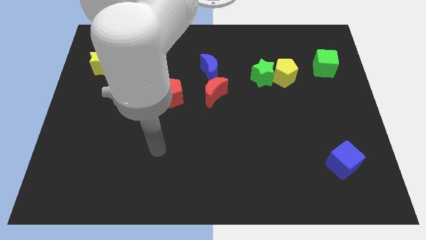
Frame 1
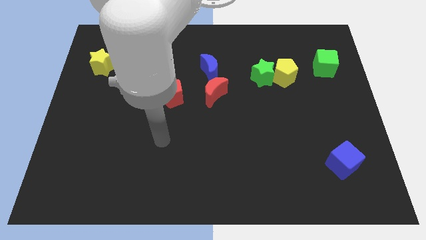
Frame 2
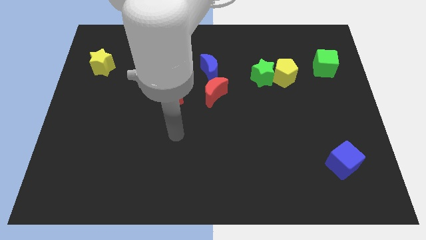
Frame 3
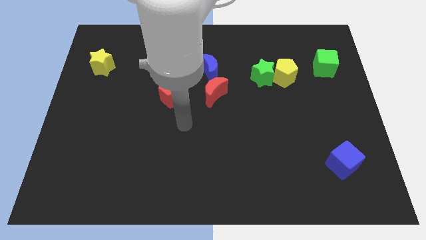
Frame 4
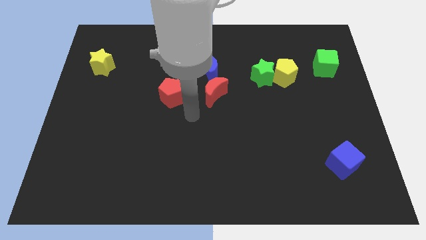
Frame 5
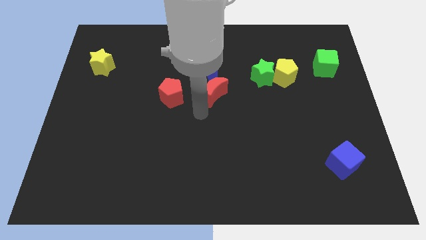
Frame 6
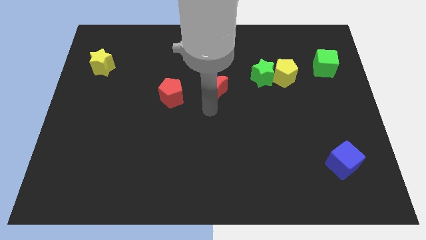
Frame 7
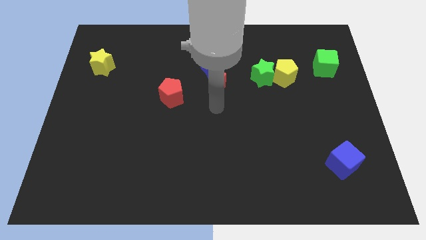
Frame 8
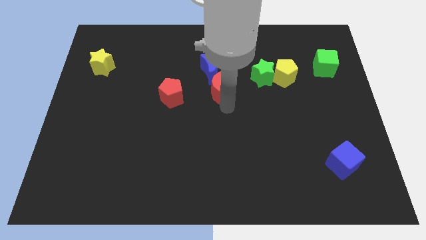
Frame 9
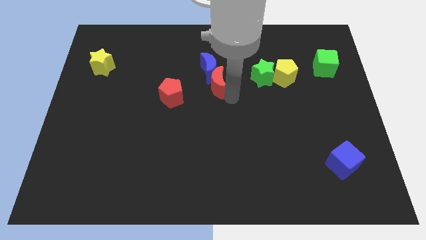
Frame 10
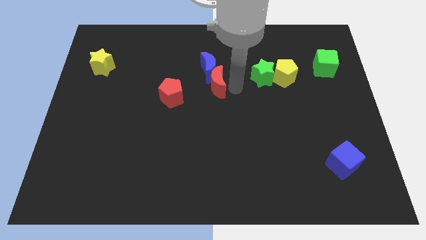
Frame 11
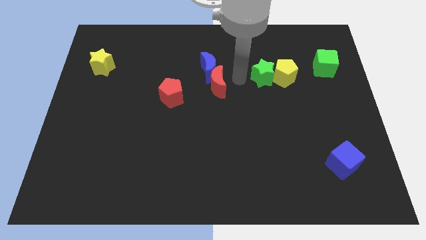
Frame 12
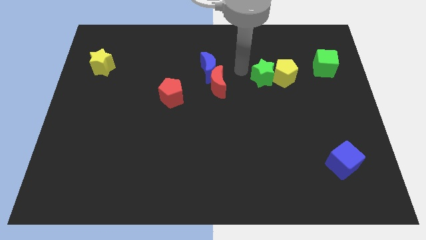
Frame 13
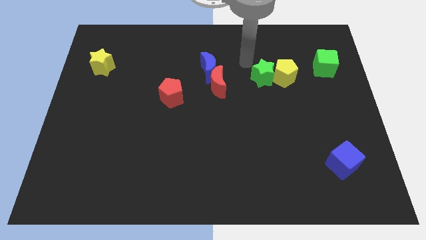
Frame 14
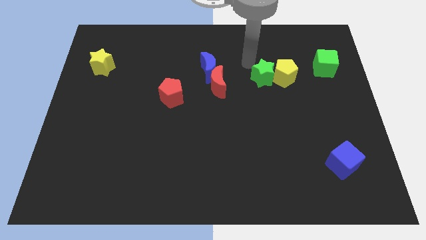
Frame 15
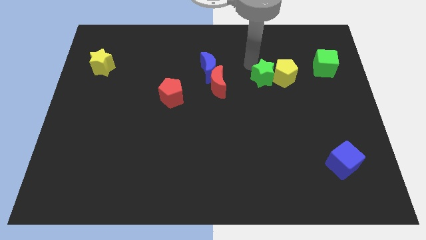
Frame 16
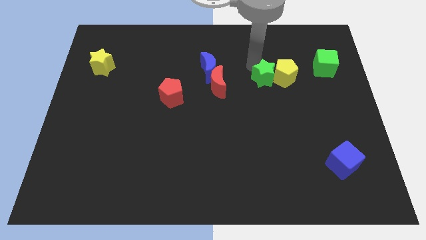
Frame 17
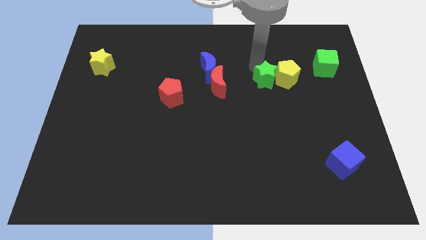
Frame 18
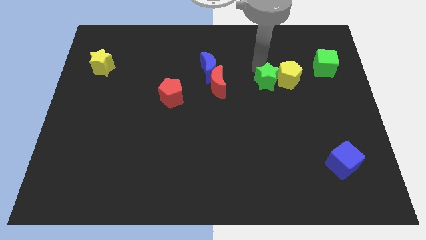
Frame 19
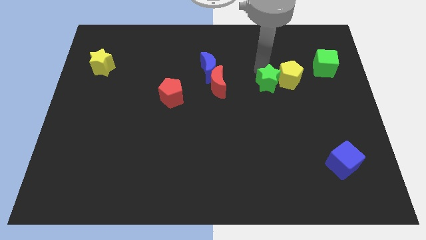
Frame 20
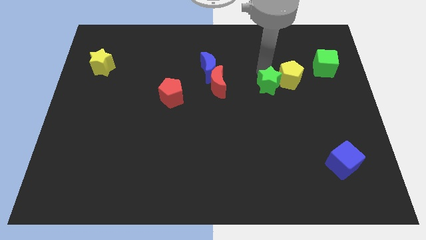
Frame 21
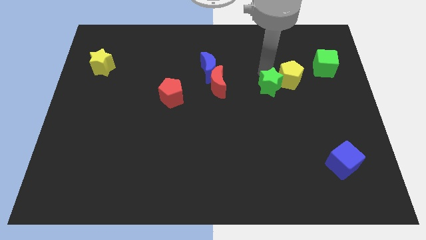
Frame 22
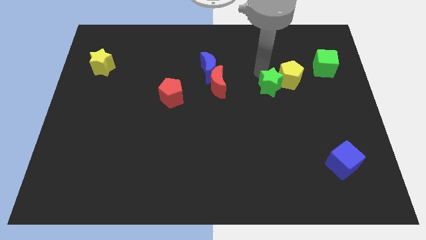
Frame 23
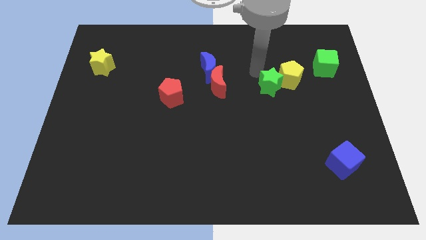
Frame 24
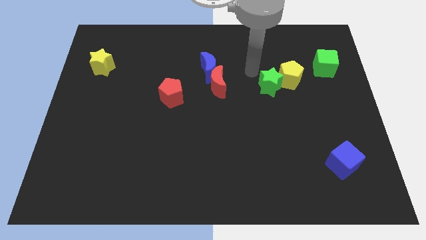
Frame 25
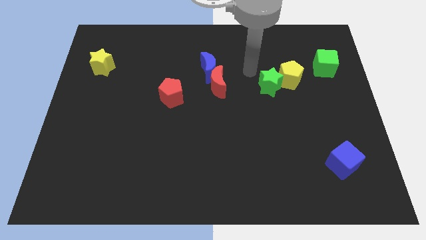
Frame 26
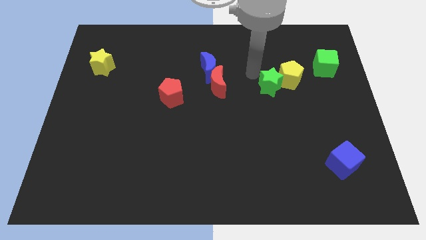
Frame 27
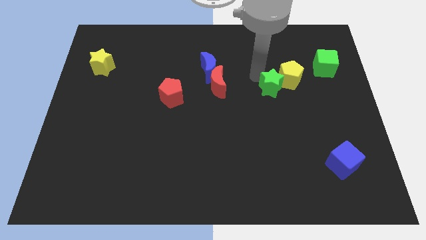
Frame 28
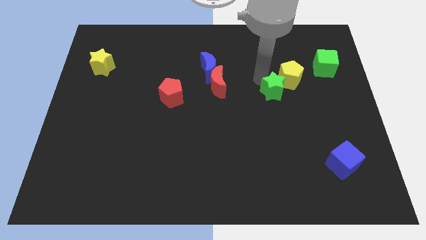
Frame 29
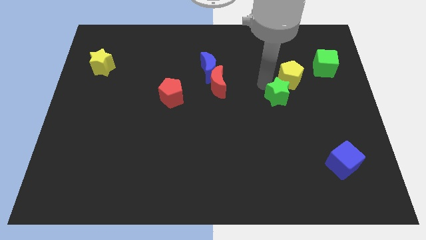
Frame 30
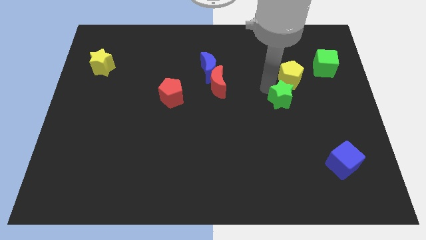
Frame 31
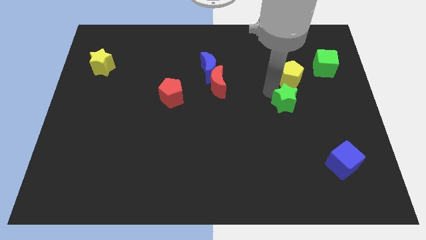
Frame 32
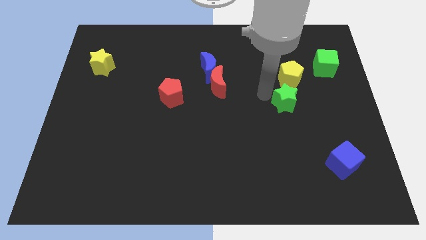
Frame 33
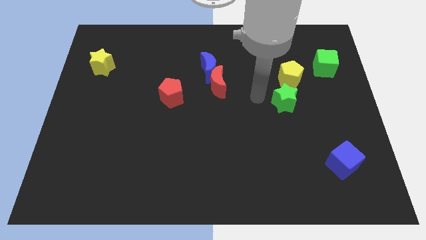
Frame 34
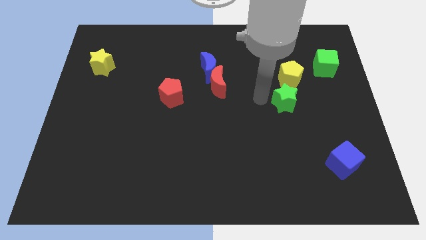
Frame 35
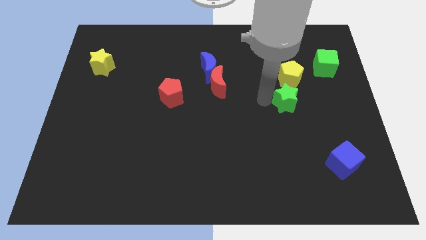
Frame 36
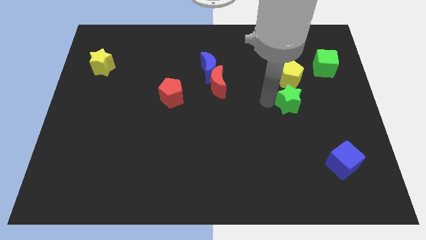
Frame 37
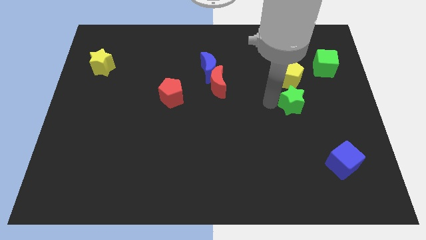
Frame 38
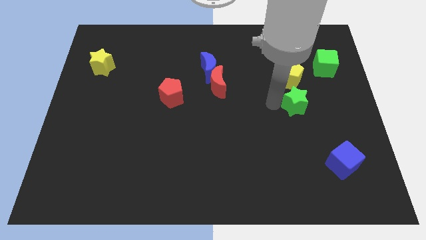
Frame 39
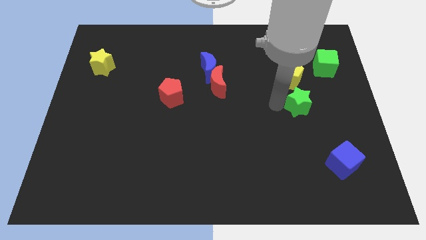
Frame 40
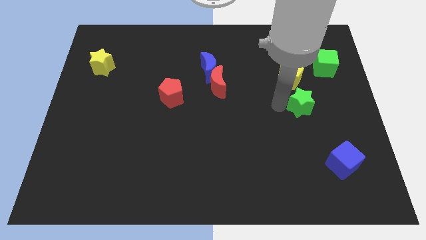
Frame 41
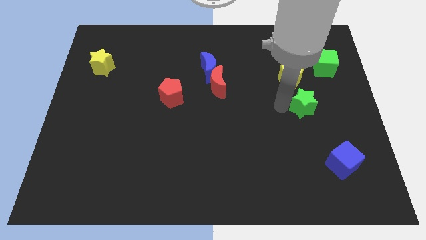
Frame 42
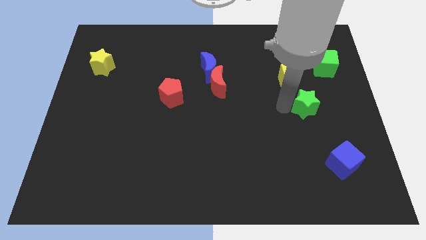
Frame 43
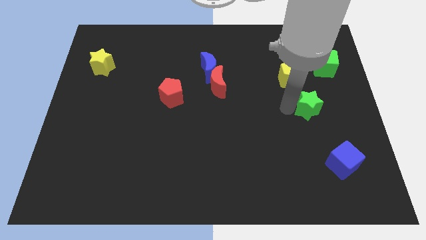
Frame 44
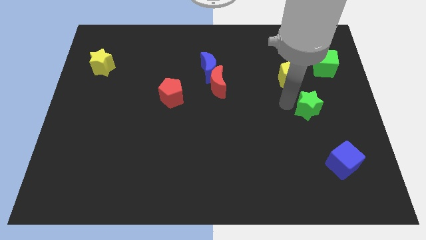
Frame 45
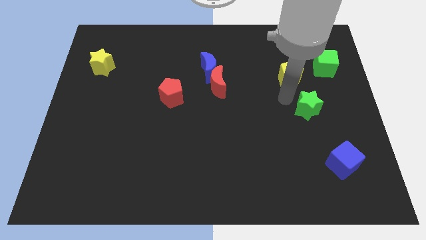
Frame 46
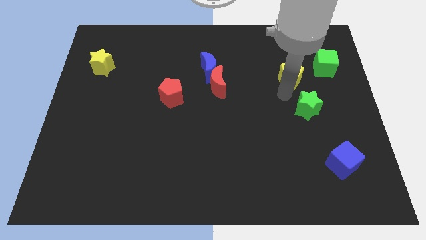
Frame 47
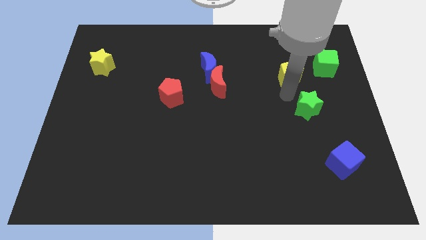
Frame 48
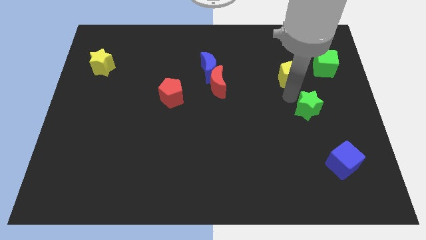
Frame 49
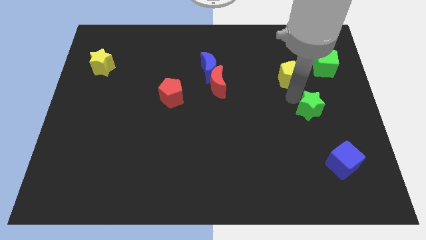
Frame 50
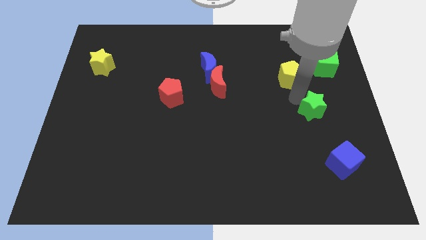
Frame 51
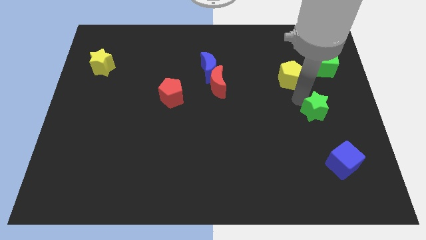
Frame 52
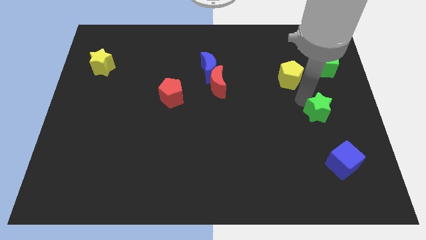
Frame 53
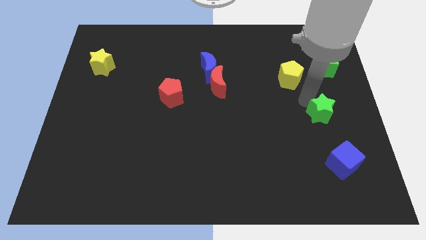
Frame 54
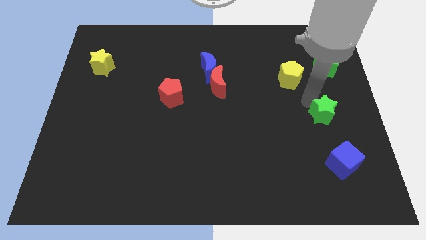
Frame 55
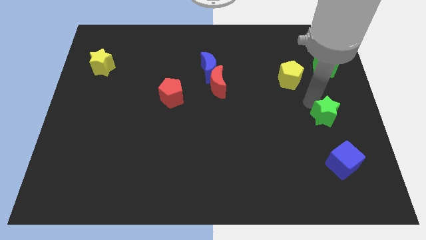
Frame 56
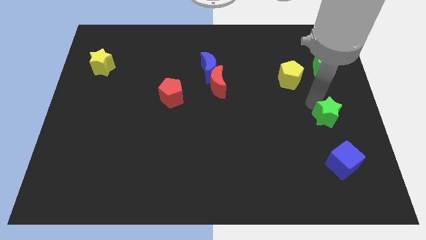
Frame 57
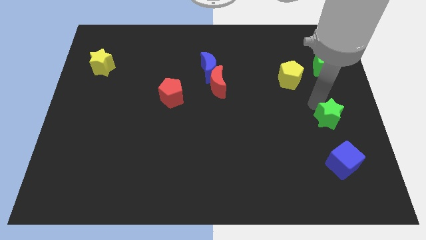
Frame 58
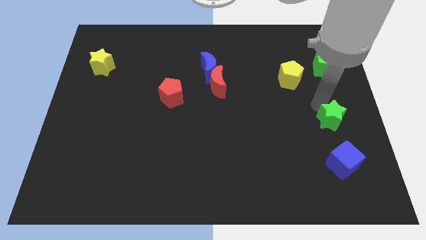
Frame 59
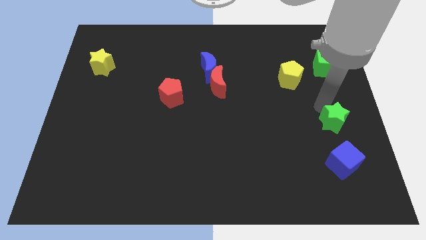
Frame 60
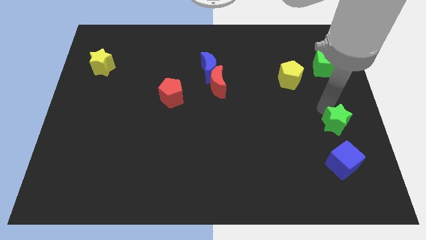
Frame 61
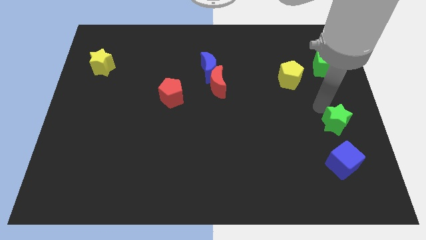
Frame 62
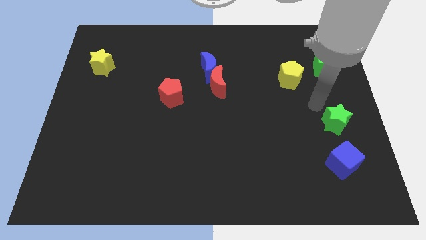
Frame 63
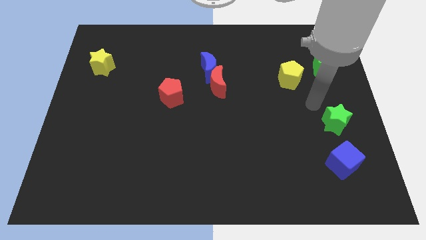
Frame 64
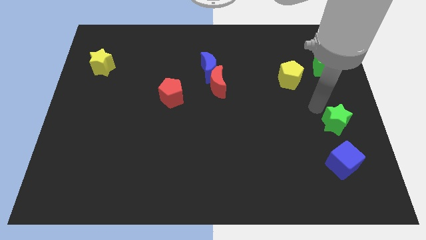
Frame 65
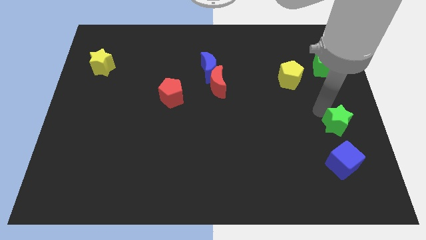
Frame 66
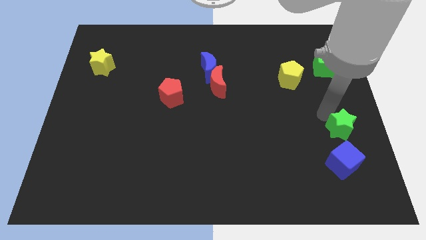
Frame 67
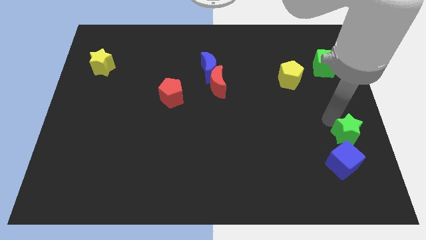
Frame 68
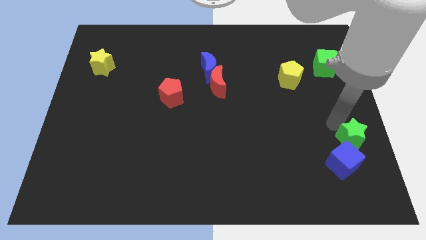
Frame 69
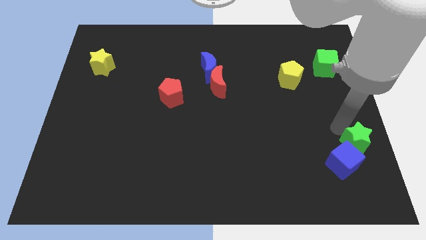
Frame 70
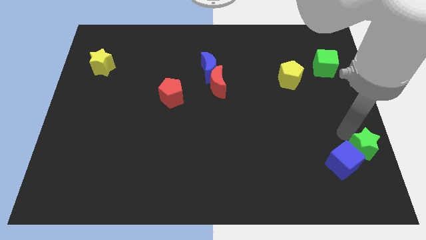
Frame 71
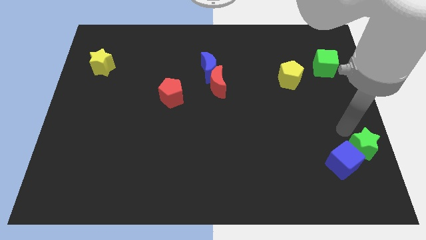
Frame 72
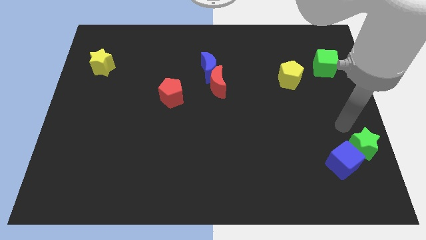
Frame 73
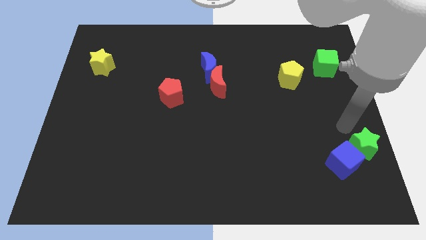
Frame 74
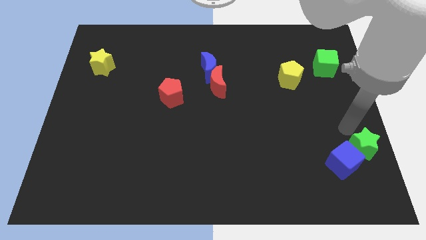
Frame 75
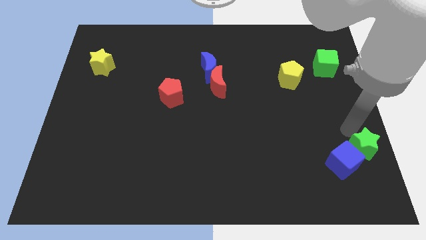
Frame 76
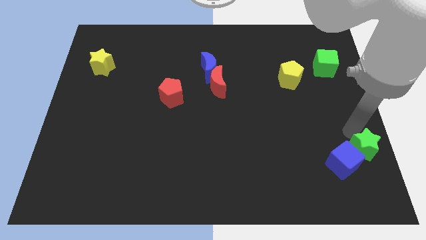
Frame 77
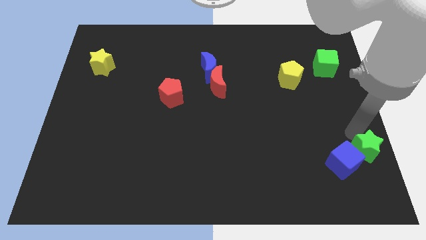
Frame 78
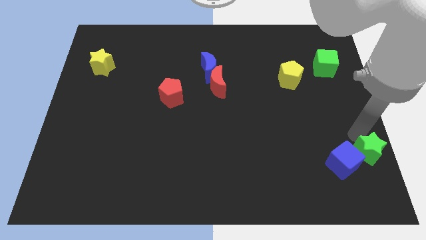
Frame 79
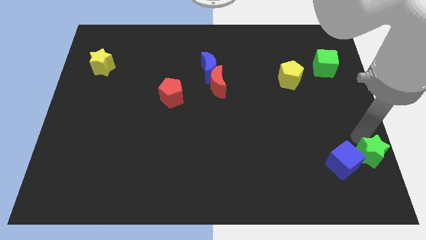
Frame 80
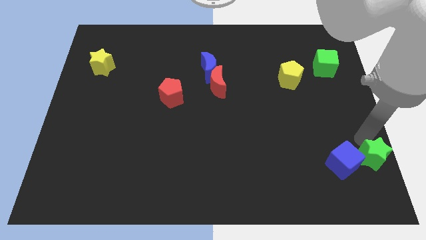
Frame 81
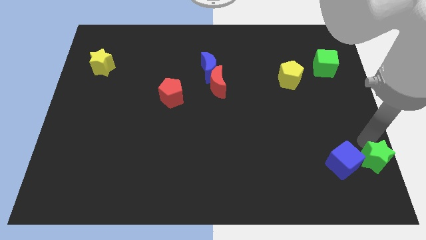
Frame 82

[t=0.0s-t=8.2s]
slide the green star to the bottom right corner
